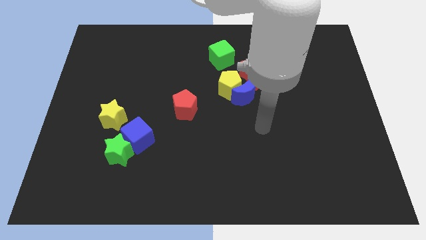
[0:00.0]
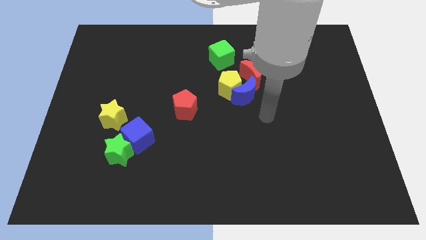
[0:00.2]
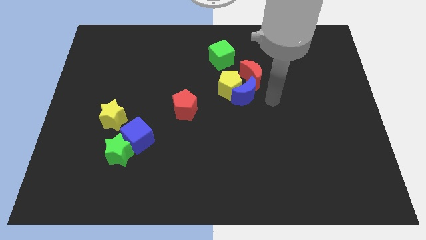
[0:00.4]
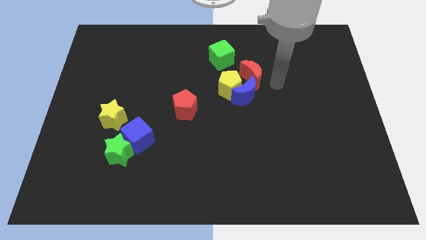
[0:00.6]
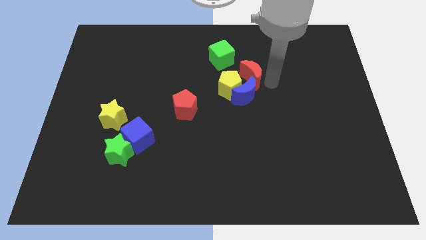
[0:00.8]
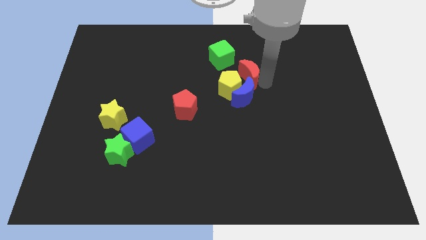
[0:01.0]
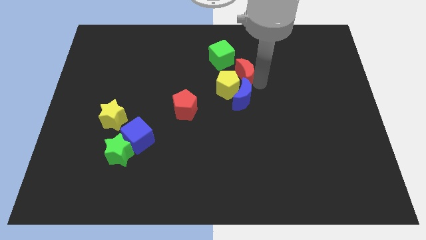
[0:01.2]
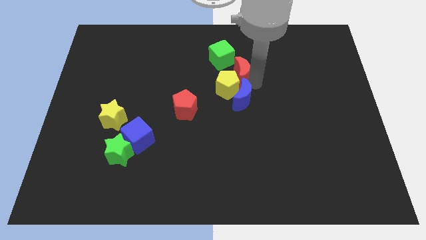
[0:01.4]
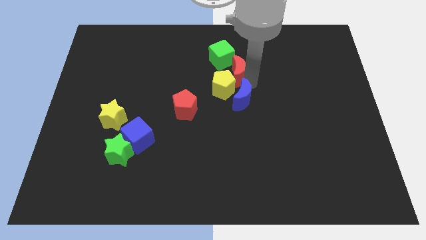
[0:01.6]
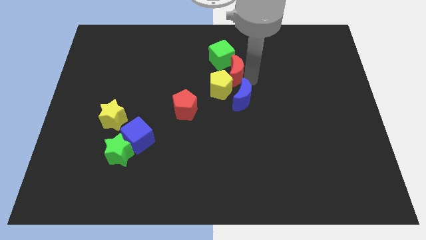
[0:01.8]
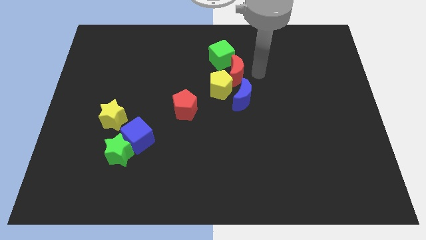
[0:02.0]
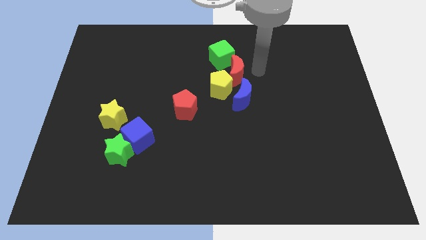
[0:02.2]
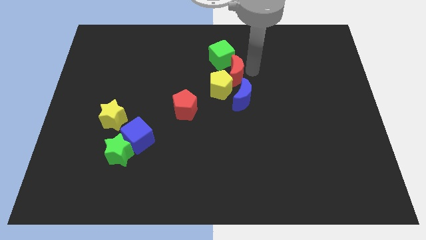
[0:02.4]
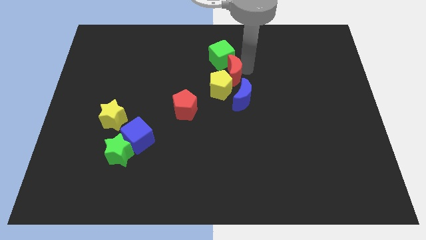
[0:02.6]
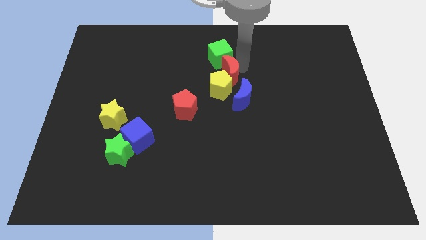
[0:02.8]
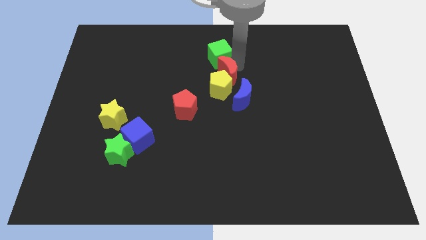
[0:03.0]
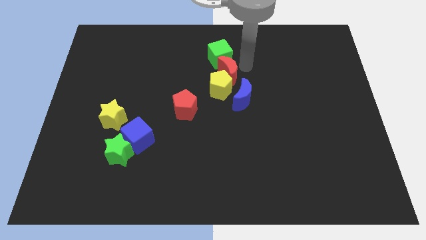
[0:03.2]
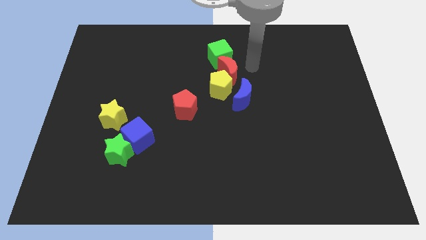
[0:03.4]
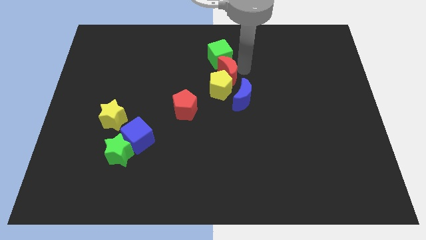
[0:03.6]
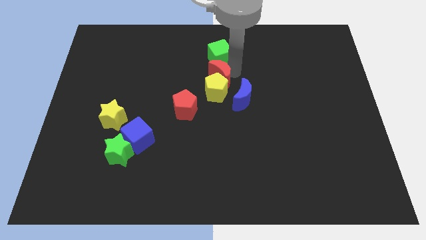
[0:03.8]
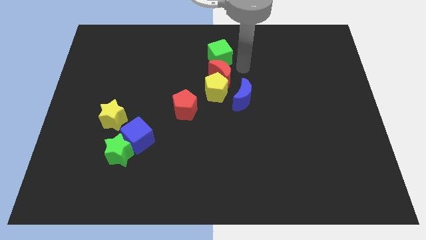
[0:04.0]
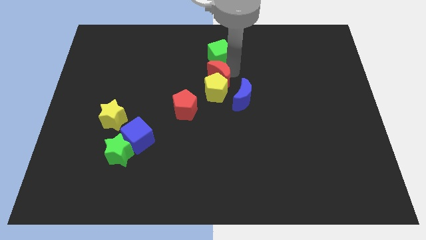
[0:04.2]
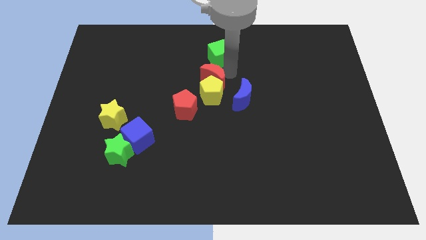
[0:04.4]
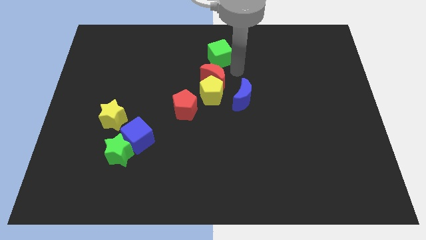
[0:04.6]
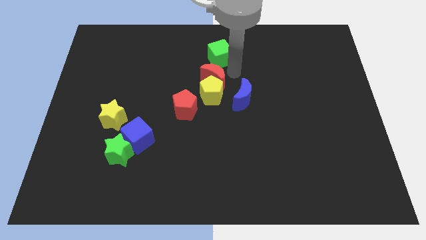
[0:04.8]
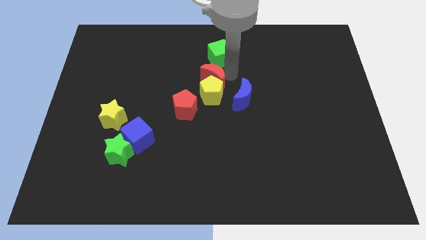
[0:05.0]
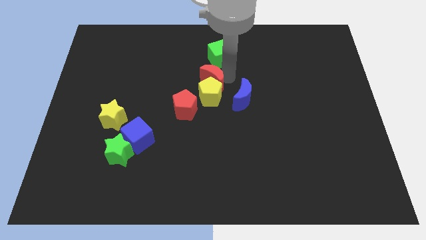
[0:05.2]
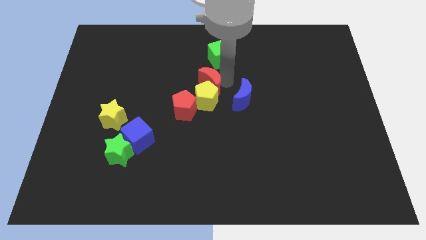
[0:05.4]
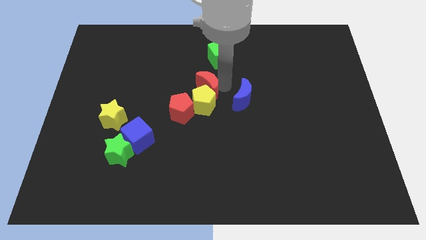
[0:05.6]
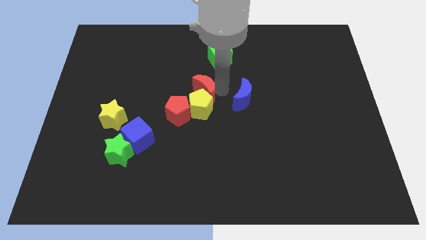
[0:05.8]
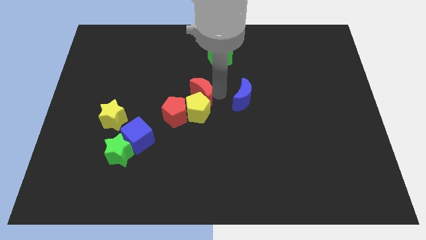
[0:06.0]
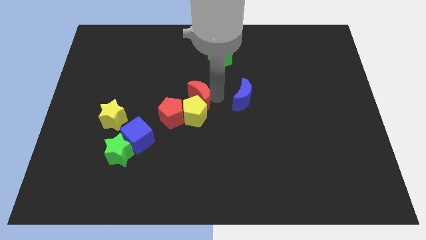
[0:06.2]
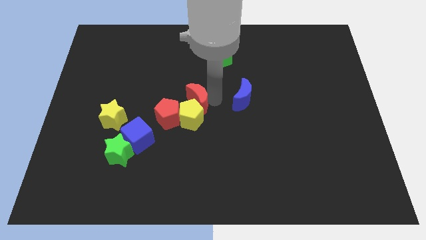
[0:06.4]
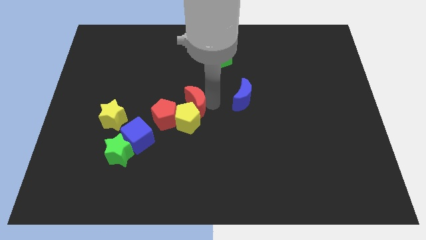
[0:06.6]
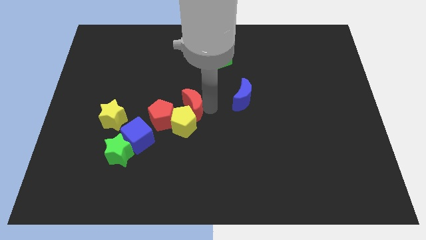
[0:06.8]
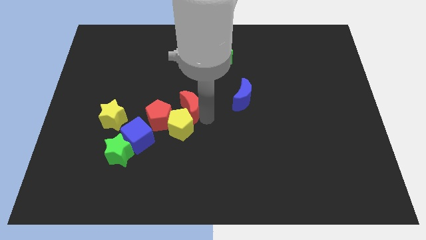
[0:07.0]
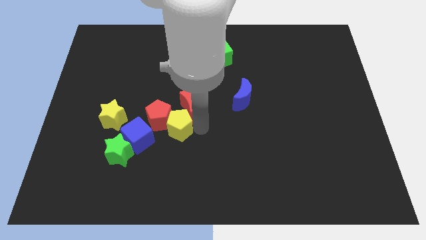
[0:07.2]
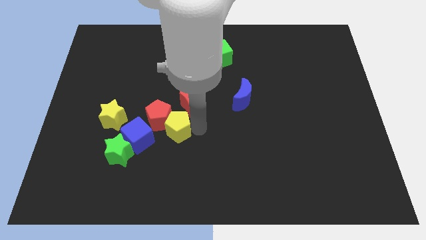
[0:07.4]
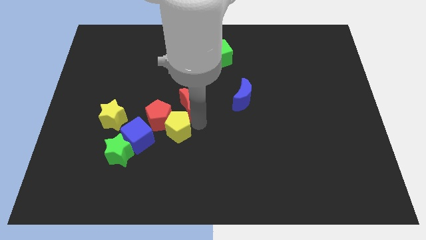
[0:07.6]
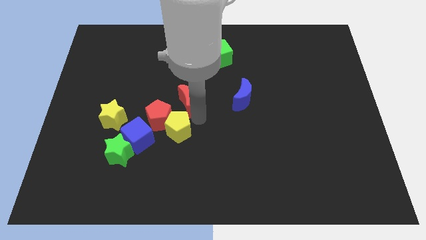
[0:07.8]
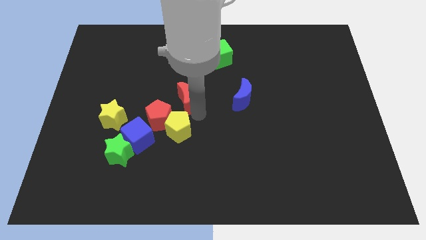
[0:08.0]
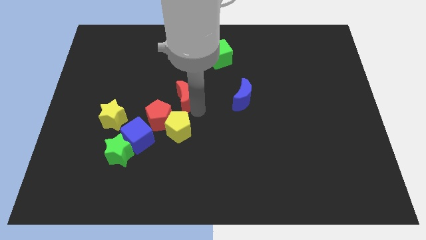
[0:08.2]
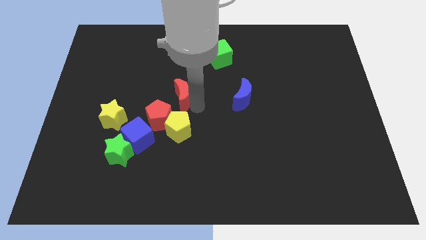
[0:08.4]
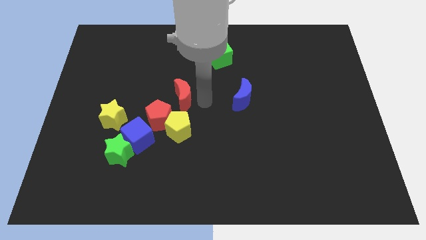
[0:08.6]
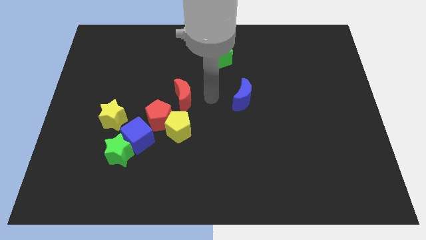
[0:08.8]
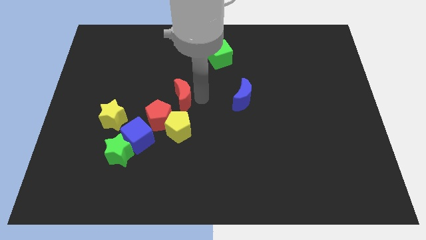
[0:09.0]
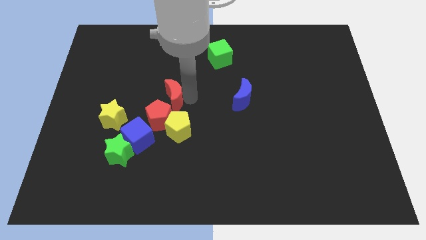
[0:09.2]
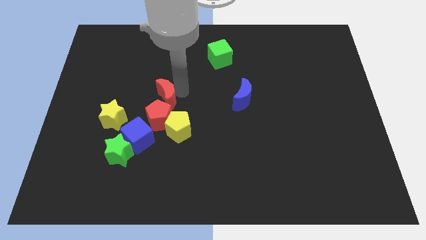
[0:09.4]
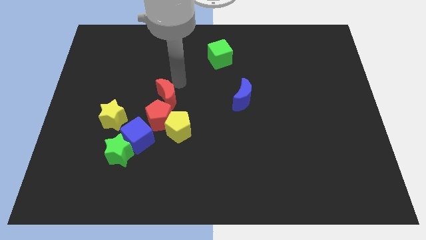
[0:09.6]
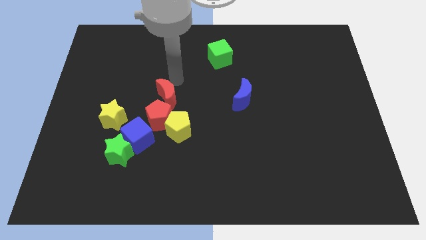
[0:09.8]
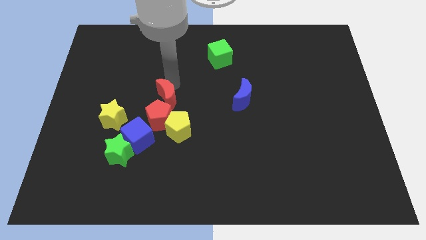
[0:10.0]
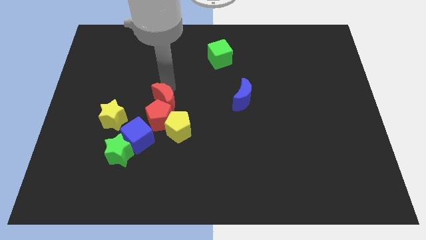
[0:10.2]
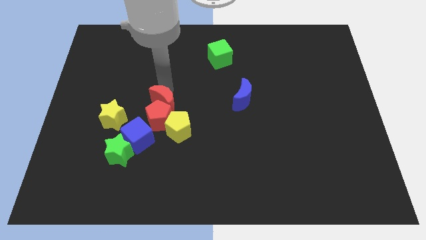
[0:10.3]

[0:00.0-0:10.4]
push the red moon just right of the yellow star

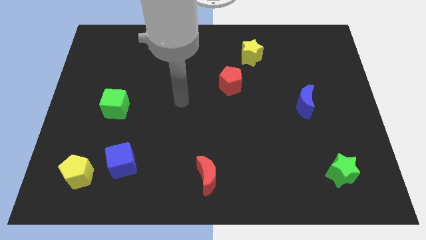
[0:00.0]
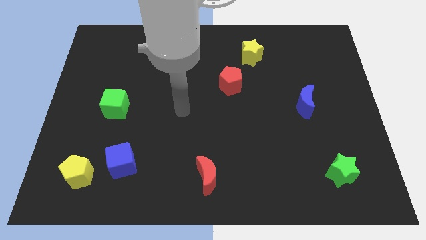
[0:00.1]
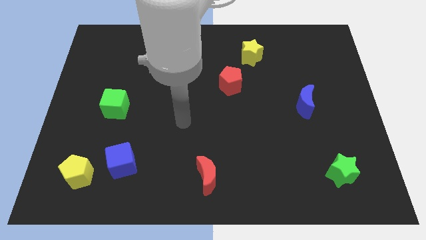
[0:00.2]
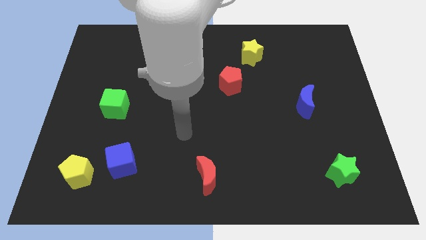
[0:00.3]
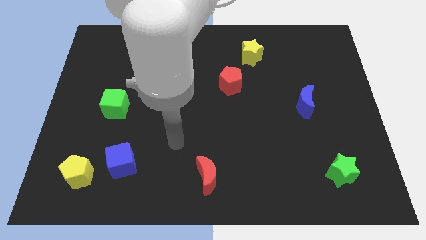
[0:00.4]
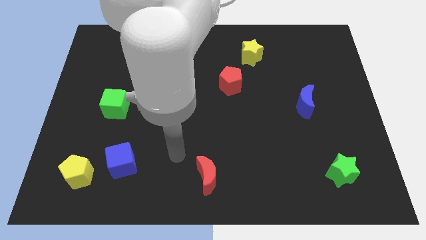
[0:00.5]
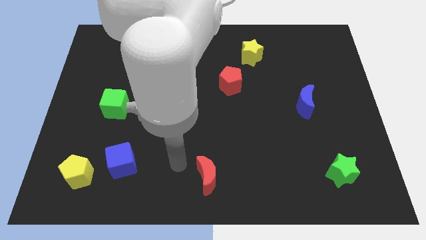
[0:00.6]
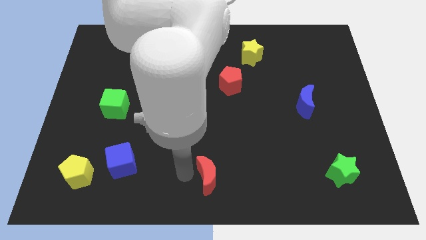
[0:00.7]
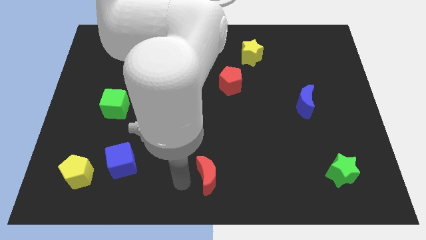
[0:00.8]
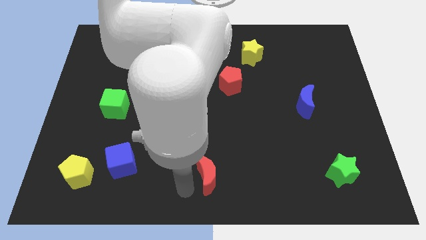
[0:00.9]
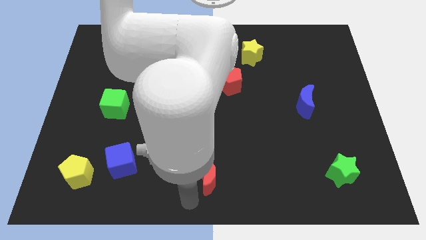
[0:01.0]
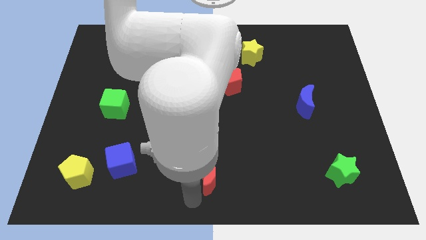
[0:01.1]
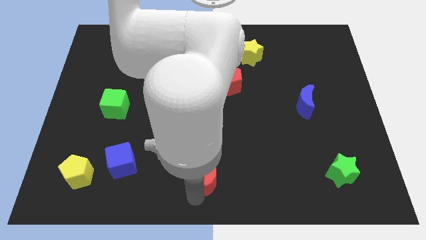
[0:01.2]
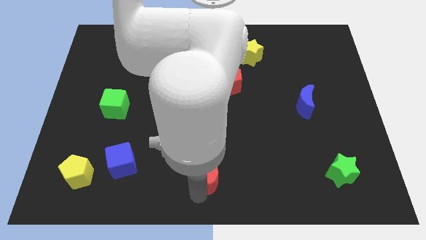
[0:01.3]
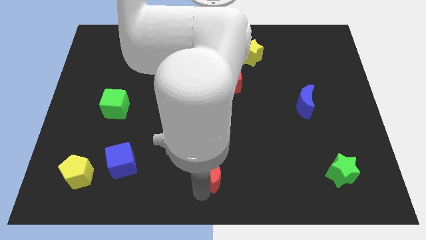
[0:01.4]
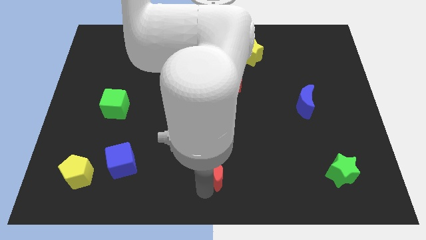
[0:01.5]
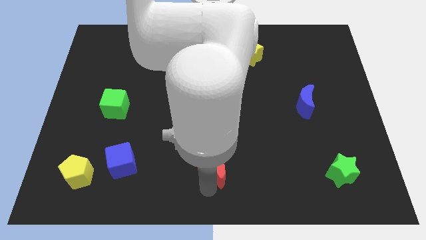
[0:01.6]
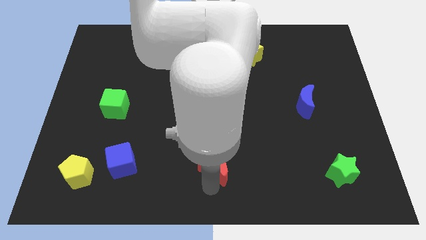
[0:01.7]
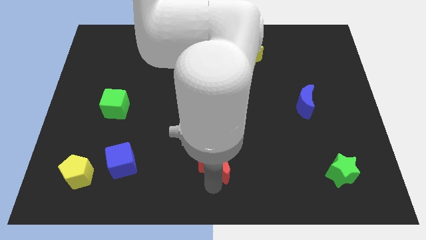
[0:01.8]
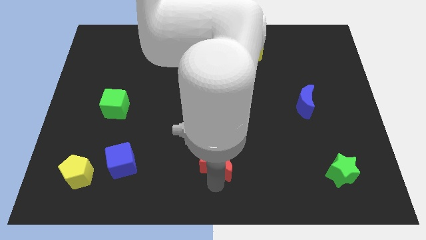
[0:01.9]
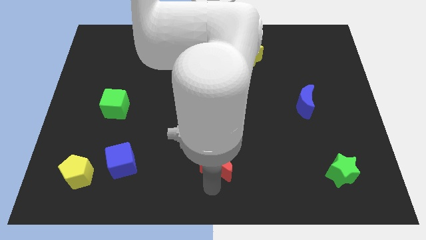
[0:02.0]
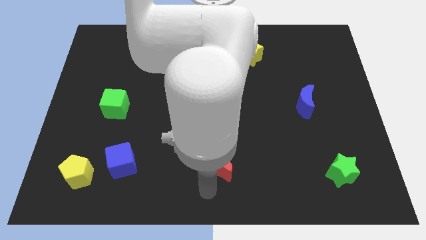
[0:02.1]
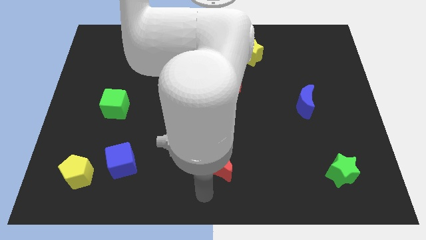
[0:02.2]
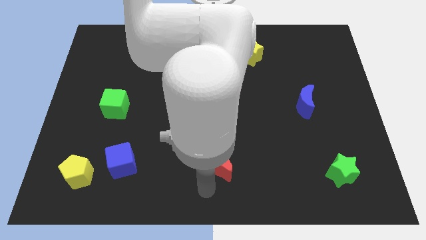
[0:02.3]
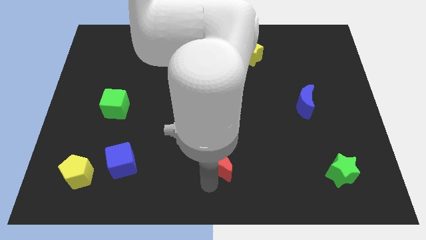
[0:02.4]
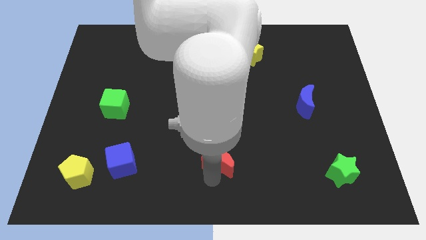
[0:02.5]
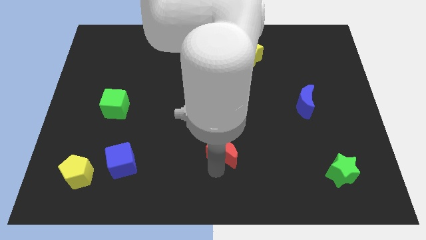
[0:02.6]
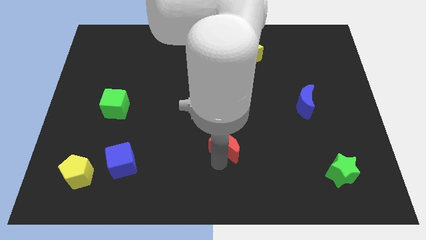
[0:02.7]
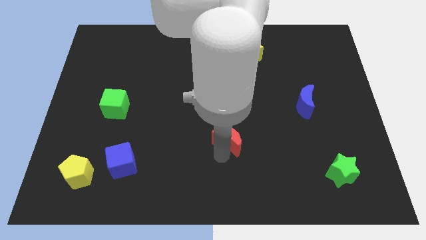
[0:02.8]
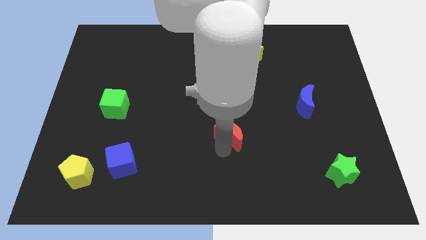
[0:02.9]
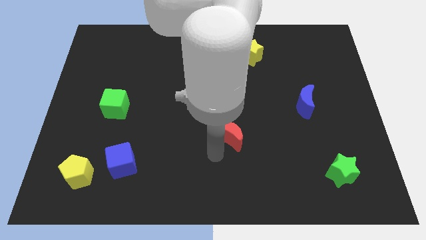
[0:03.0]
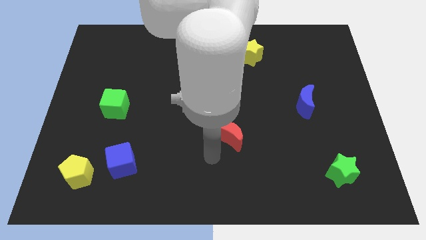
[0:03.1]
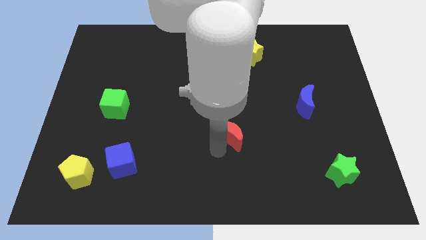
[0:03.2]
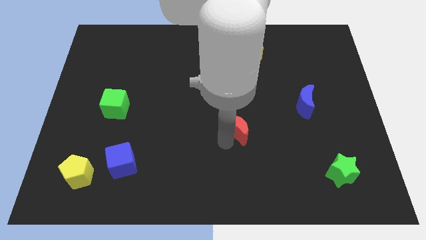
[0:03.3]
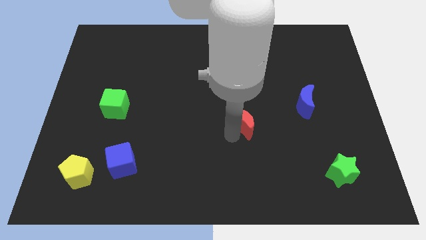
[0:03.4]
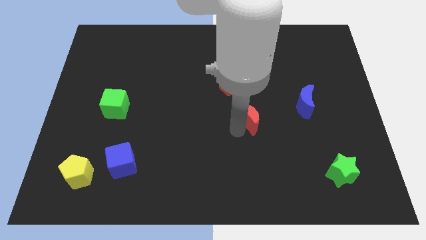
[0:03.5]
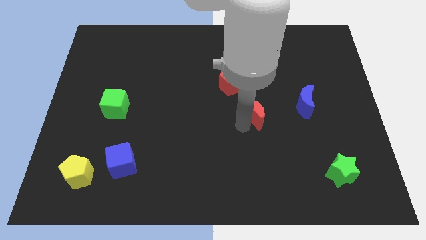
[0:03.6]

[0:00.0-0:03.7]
push the red moon to the left of the blue moon
